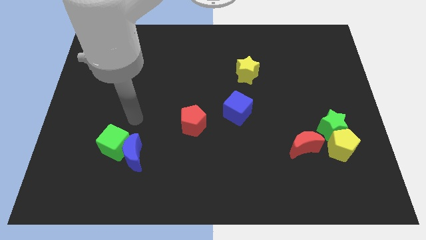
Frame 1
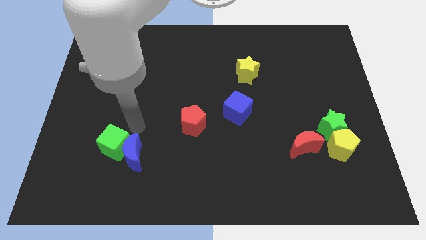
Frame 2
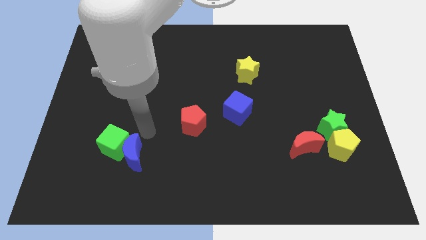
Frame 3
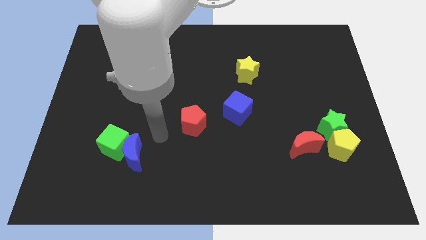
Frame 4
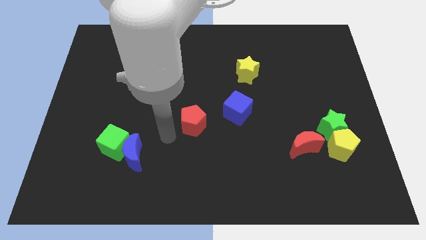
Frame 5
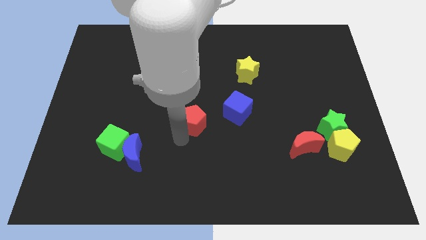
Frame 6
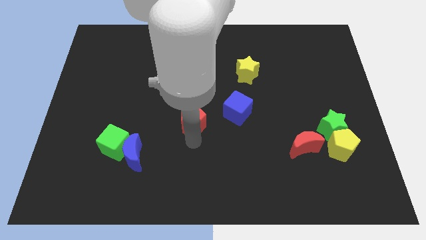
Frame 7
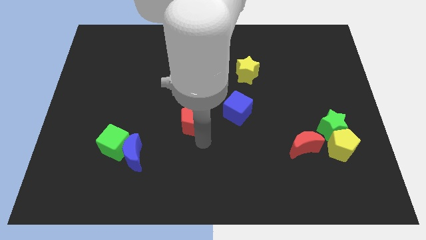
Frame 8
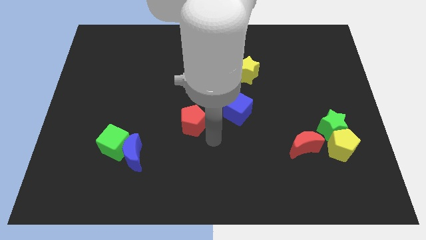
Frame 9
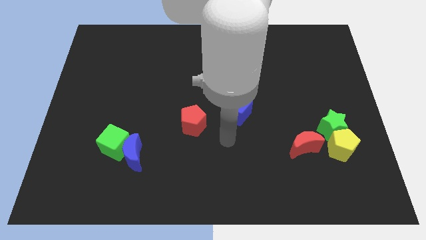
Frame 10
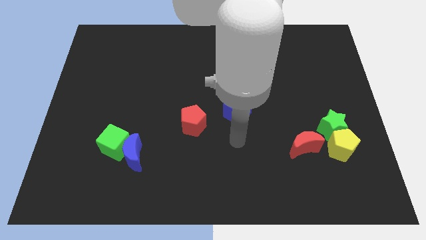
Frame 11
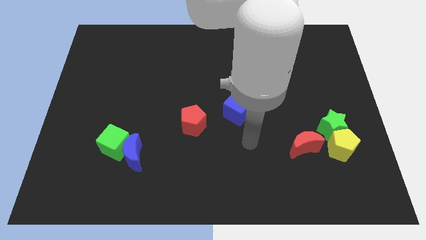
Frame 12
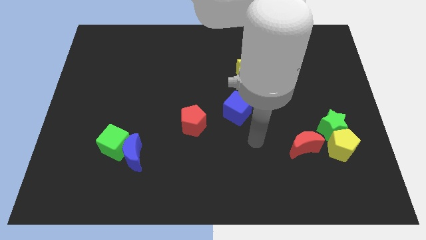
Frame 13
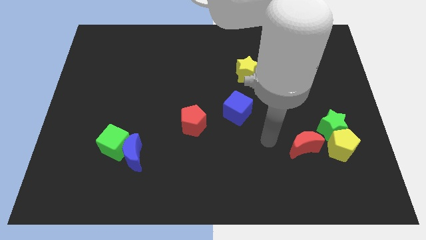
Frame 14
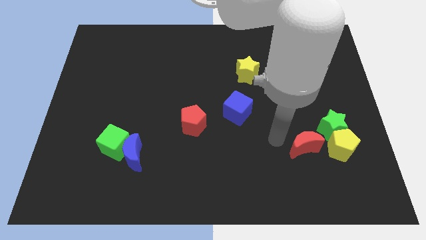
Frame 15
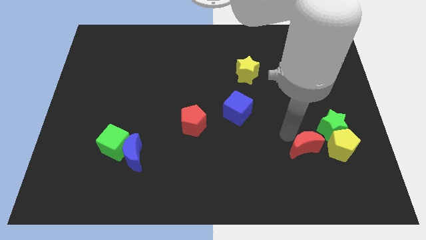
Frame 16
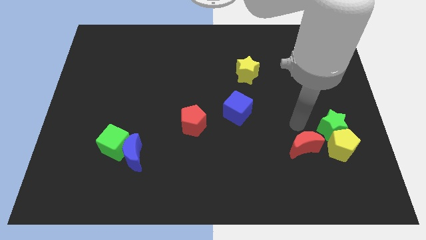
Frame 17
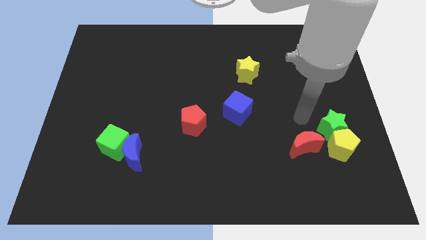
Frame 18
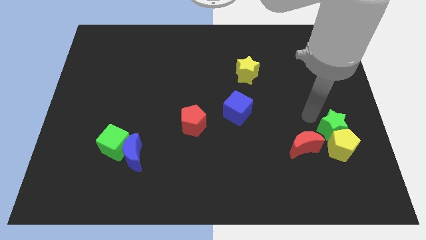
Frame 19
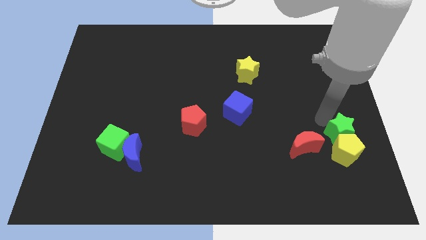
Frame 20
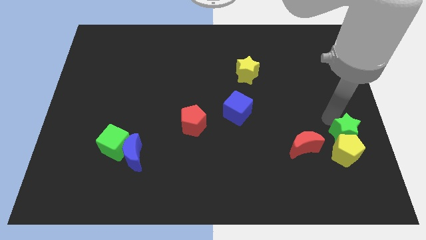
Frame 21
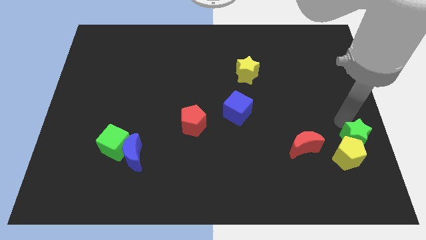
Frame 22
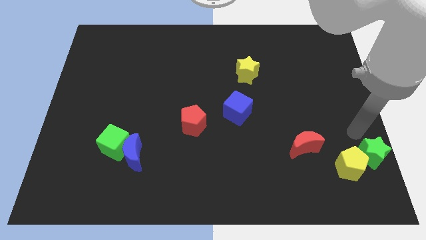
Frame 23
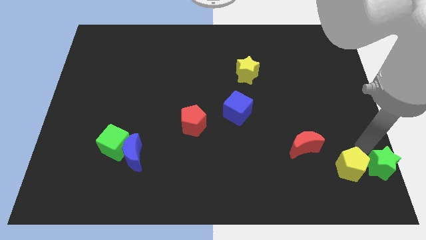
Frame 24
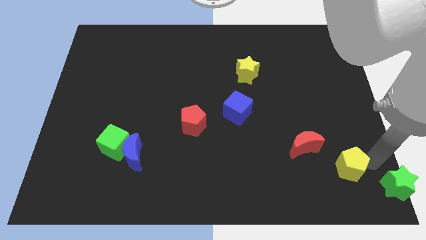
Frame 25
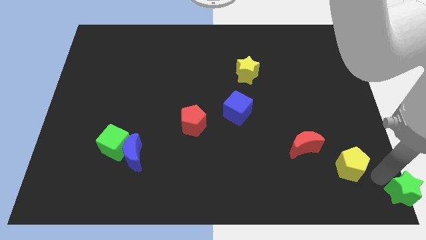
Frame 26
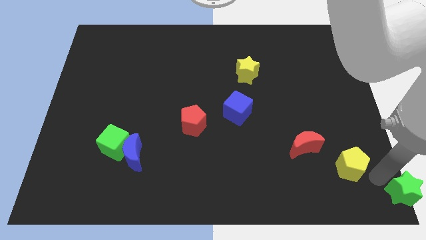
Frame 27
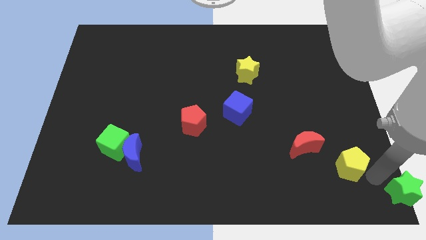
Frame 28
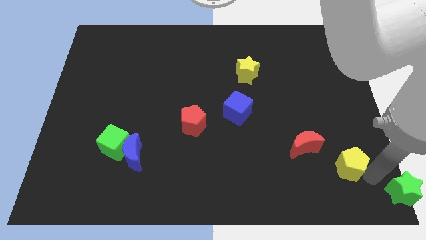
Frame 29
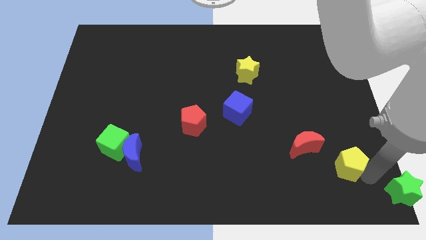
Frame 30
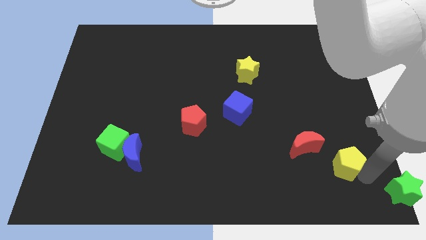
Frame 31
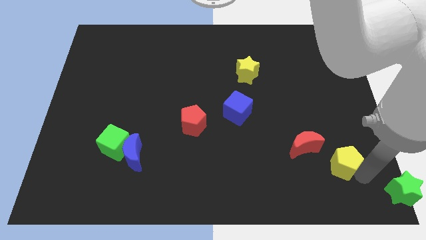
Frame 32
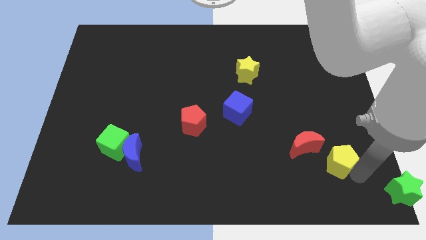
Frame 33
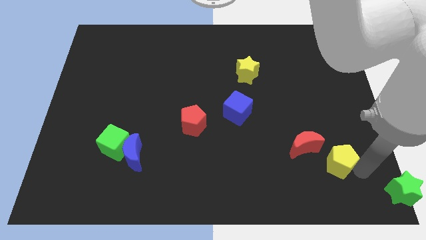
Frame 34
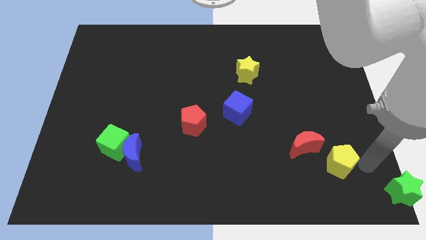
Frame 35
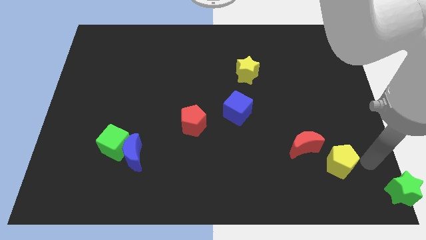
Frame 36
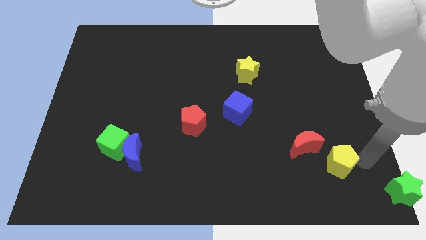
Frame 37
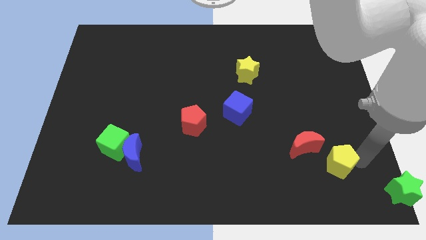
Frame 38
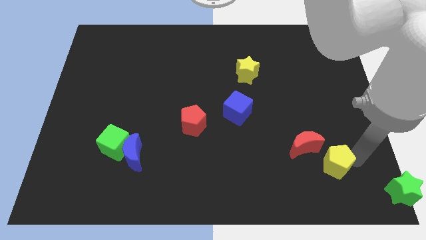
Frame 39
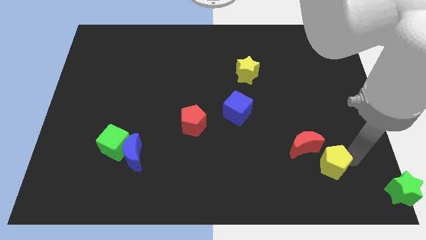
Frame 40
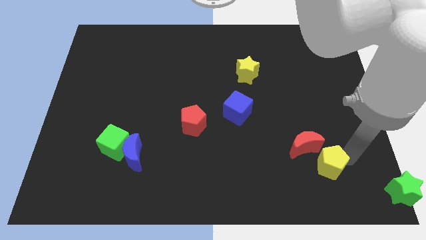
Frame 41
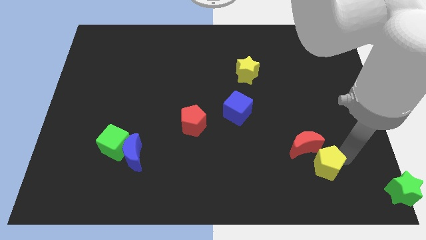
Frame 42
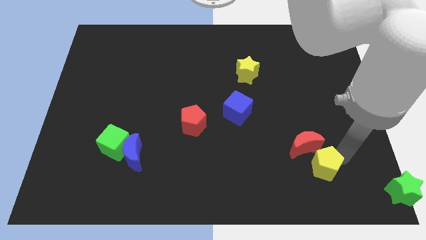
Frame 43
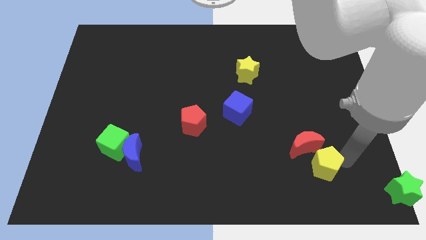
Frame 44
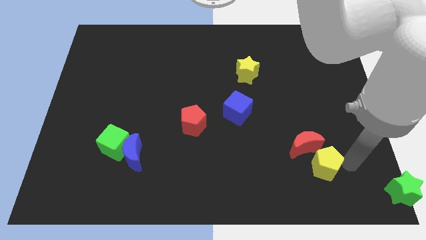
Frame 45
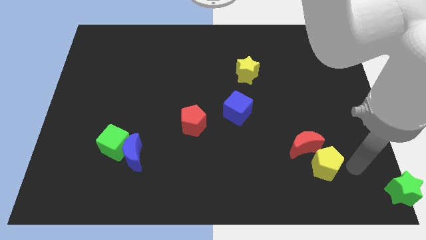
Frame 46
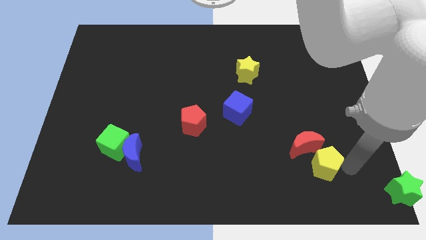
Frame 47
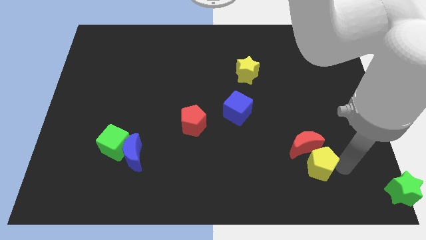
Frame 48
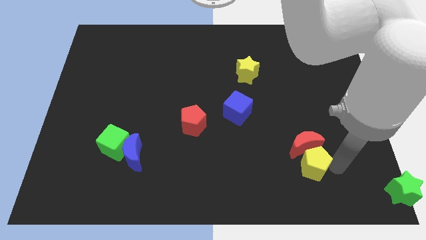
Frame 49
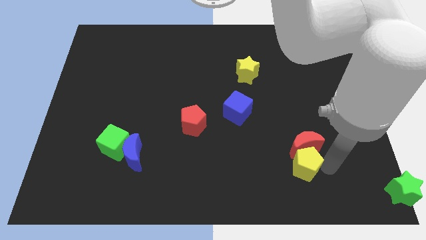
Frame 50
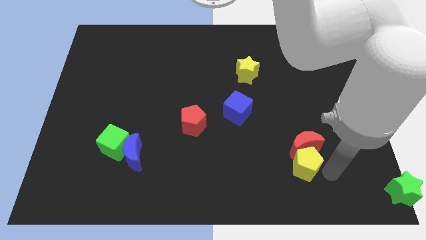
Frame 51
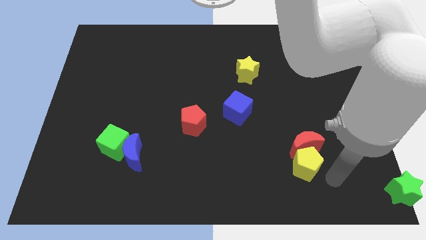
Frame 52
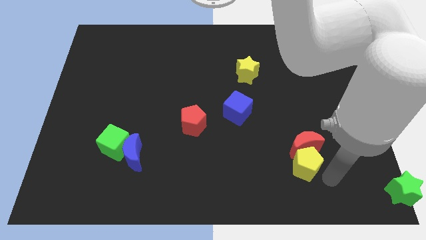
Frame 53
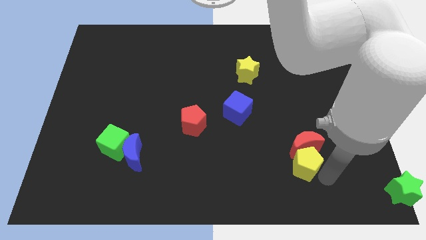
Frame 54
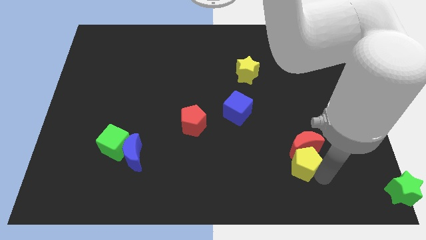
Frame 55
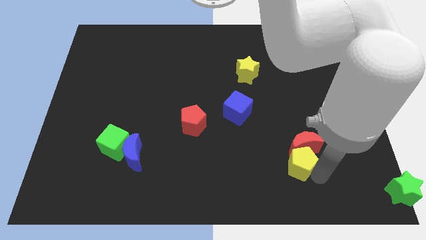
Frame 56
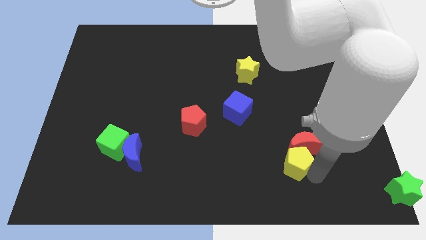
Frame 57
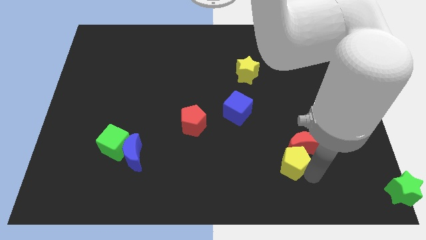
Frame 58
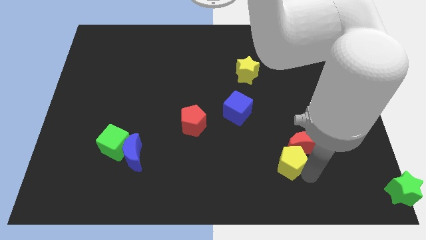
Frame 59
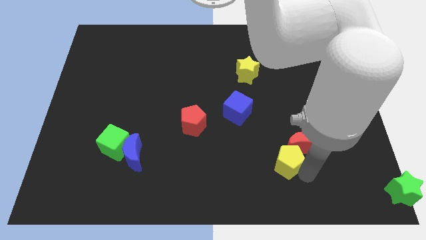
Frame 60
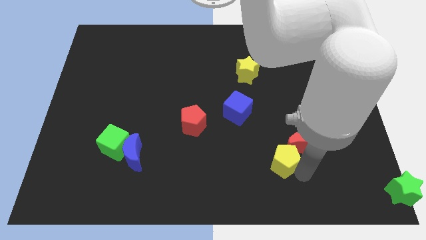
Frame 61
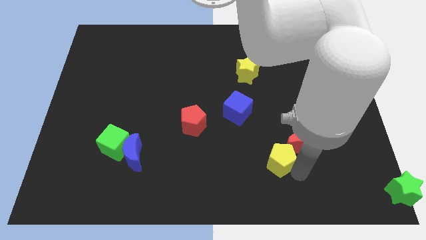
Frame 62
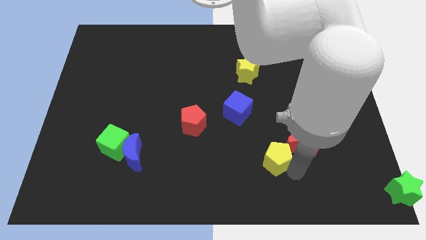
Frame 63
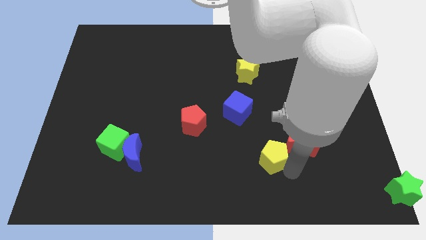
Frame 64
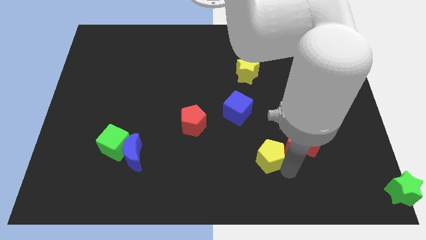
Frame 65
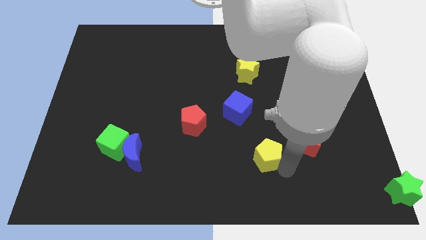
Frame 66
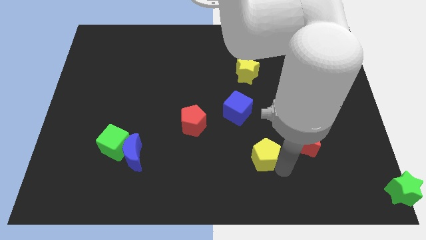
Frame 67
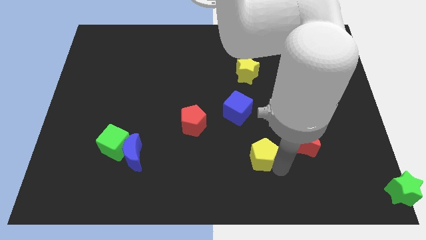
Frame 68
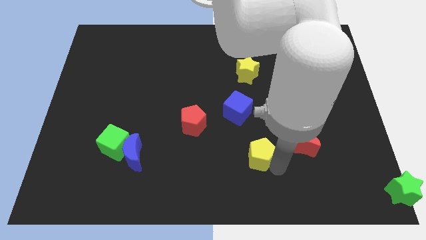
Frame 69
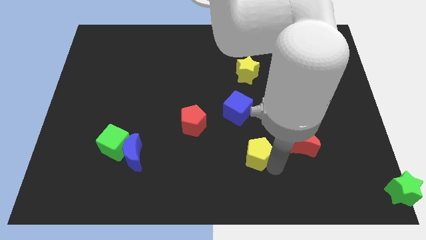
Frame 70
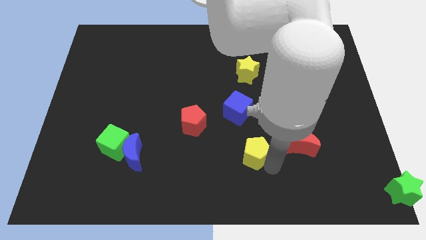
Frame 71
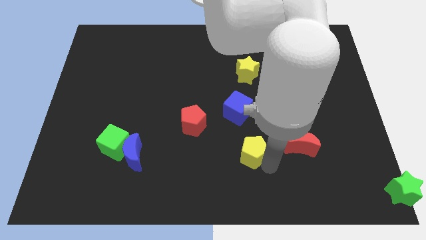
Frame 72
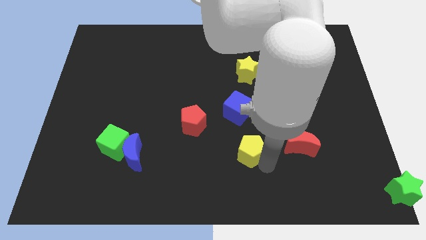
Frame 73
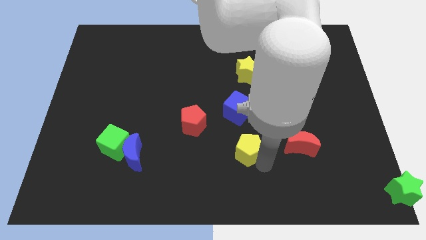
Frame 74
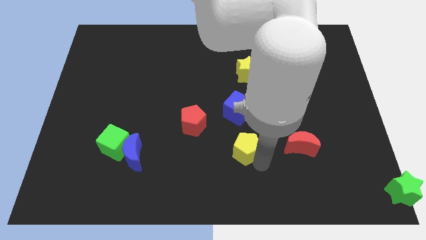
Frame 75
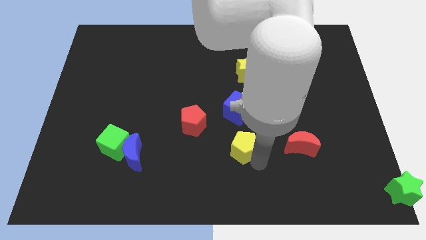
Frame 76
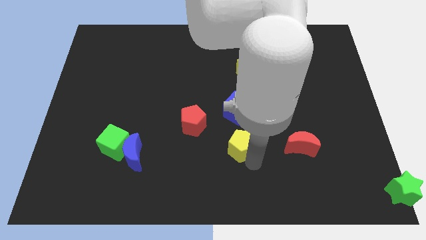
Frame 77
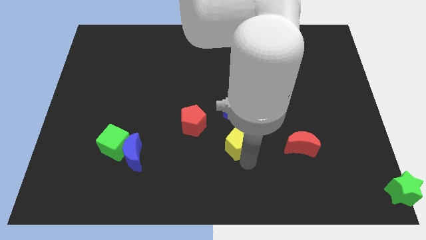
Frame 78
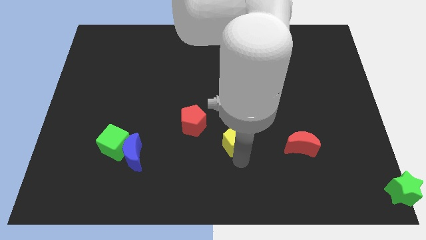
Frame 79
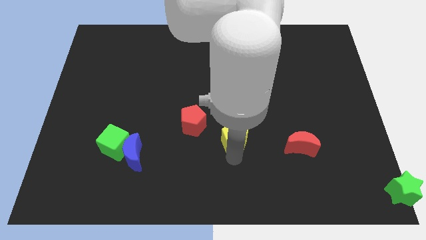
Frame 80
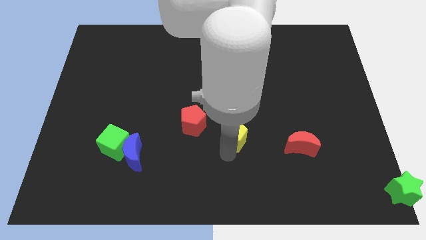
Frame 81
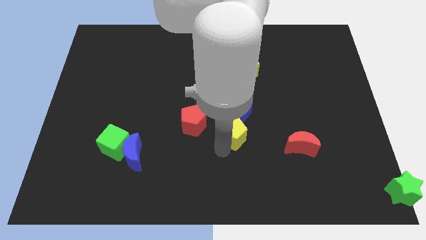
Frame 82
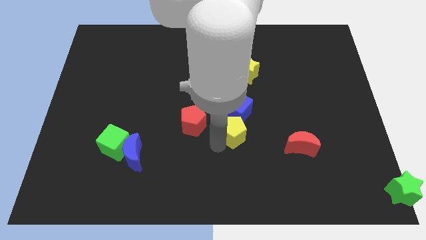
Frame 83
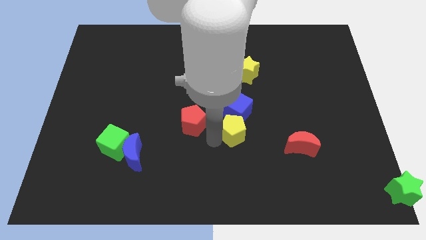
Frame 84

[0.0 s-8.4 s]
move the yellow pentagon to the blue cube
